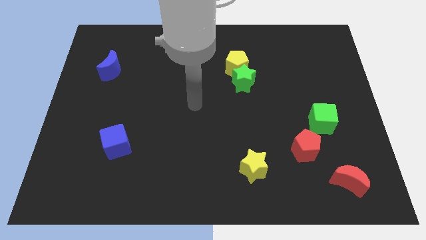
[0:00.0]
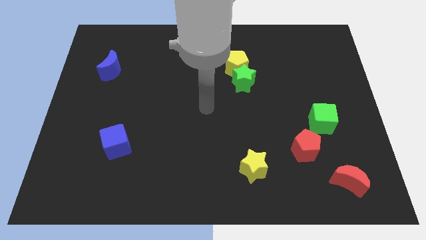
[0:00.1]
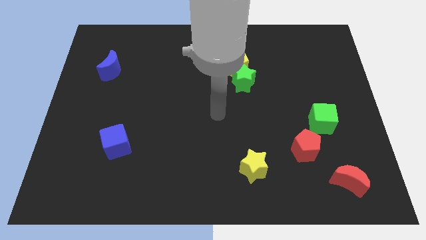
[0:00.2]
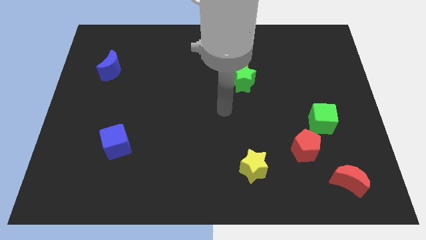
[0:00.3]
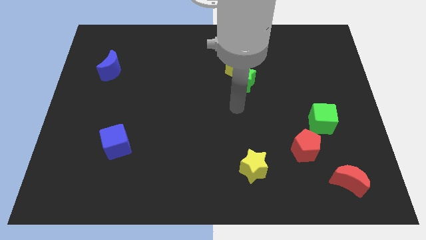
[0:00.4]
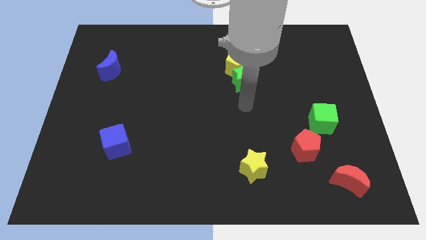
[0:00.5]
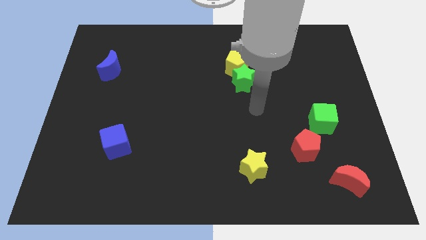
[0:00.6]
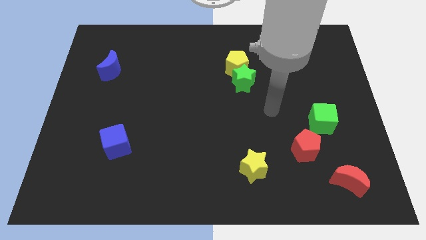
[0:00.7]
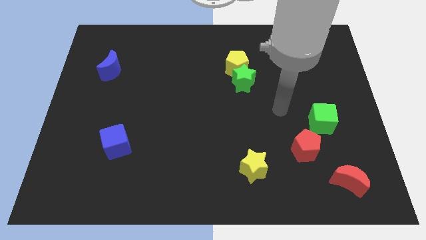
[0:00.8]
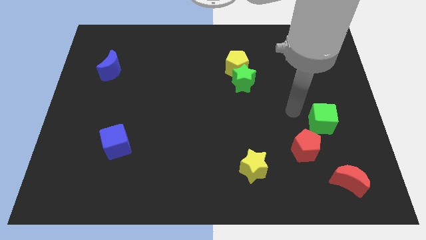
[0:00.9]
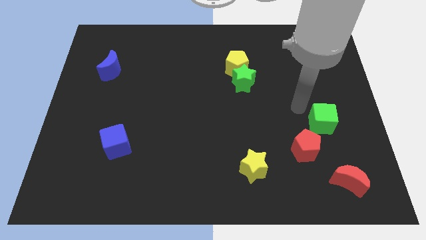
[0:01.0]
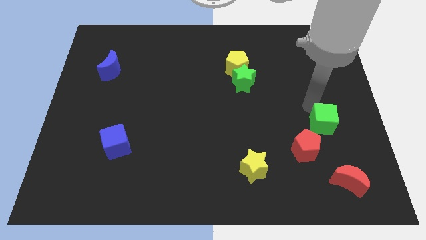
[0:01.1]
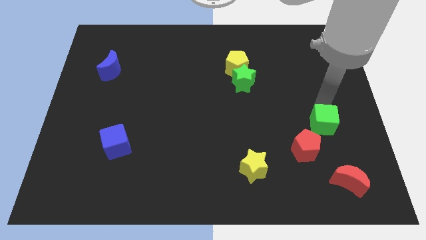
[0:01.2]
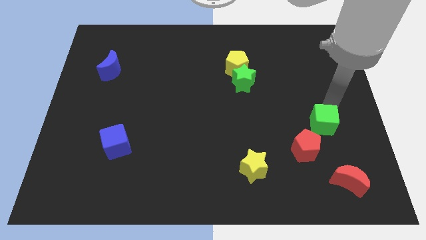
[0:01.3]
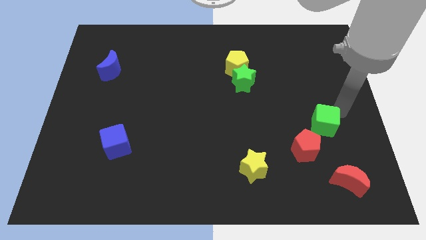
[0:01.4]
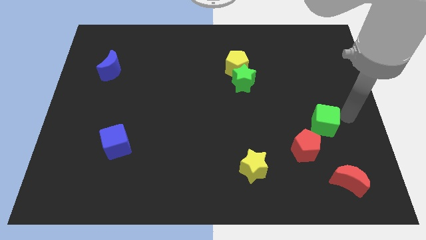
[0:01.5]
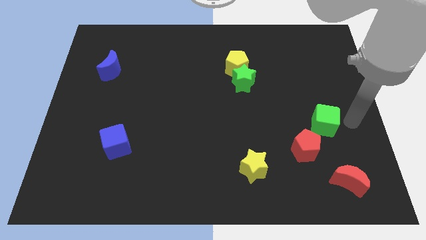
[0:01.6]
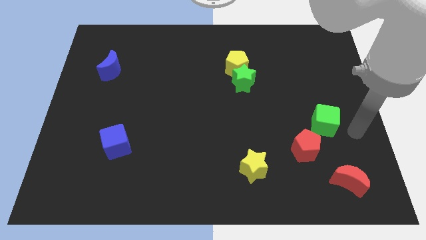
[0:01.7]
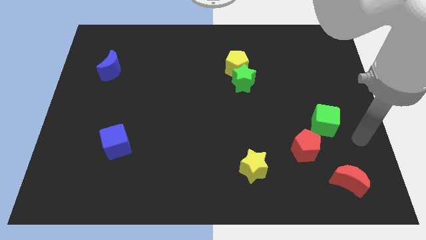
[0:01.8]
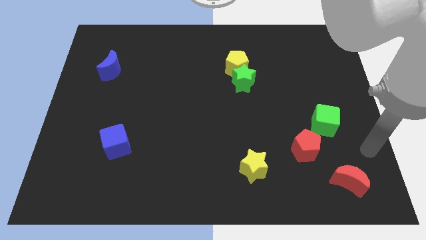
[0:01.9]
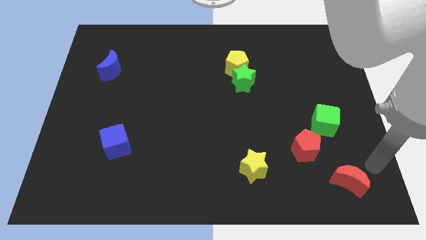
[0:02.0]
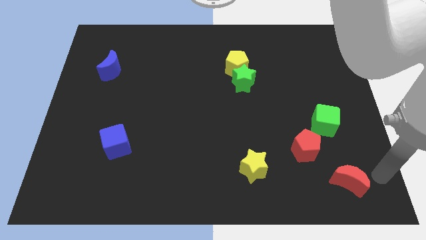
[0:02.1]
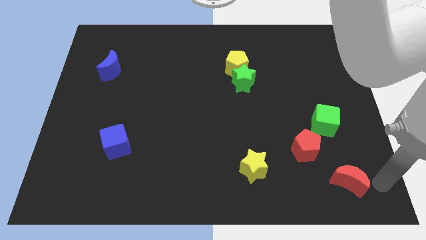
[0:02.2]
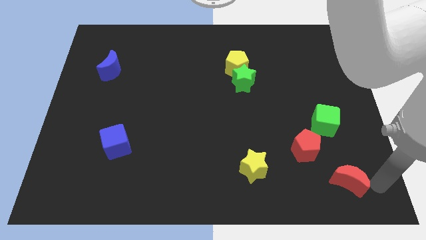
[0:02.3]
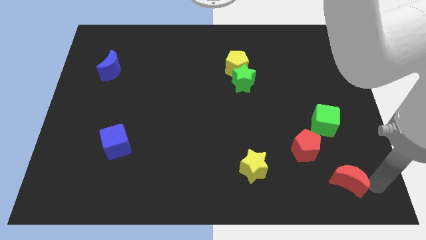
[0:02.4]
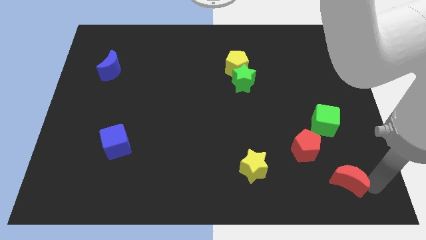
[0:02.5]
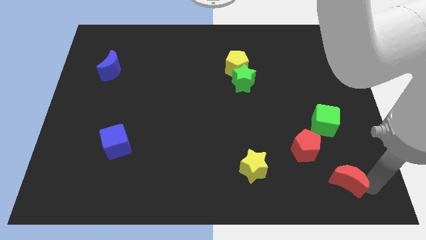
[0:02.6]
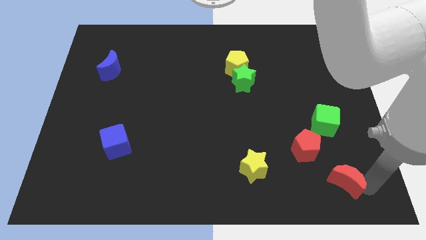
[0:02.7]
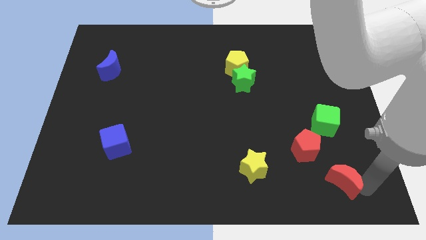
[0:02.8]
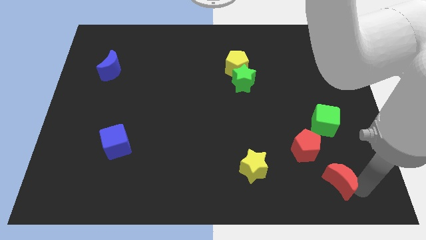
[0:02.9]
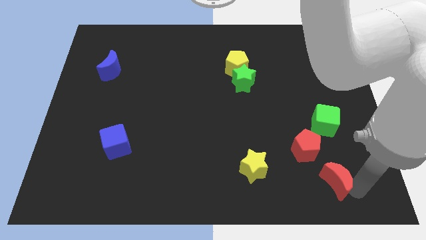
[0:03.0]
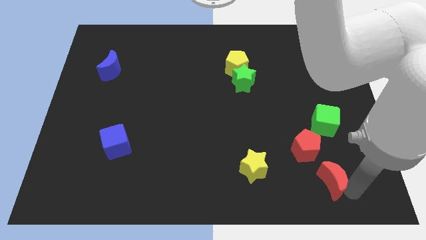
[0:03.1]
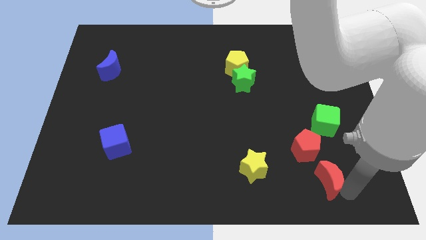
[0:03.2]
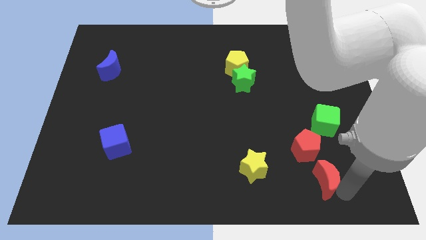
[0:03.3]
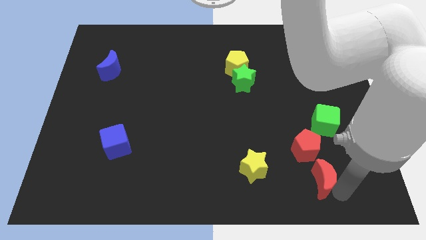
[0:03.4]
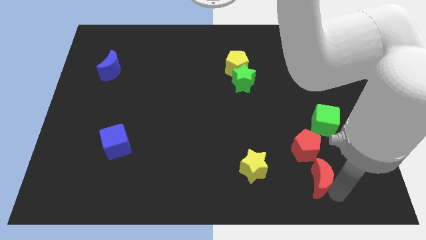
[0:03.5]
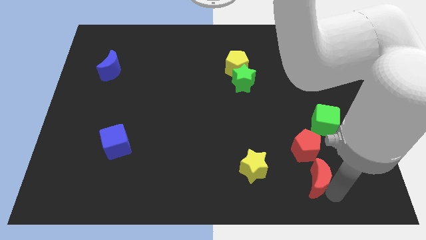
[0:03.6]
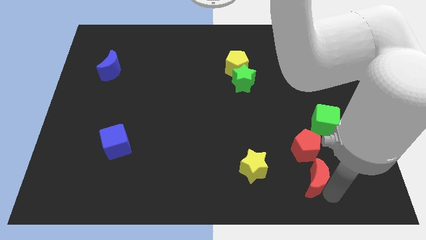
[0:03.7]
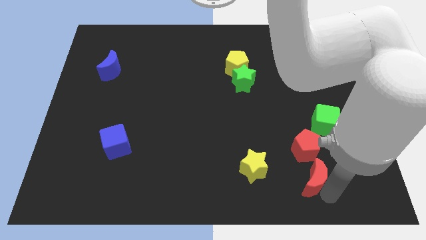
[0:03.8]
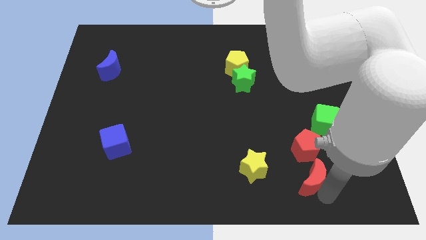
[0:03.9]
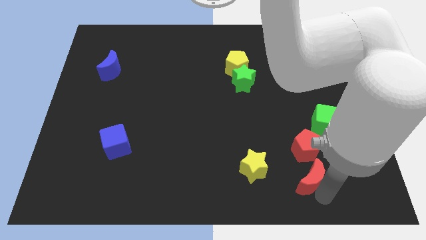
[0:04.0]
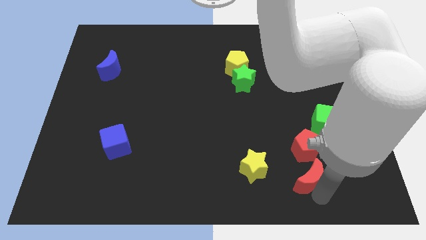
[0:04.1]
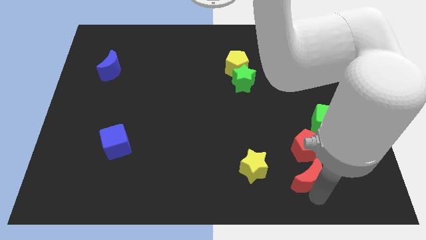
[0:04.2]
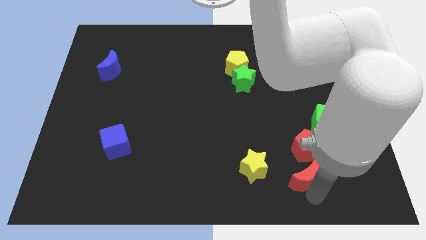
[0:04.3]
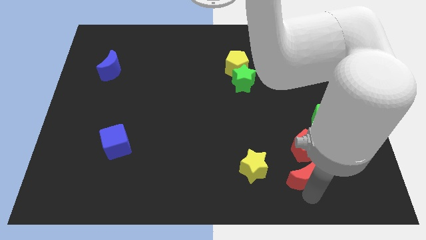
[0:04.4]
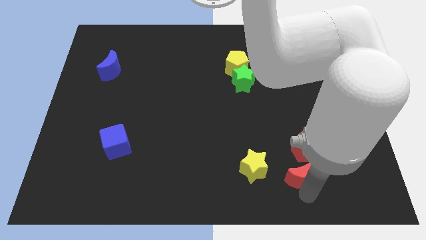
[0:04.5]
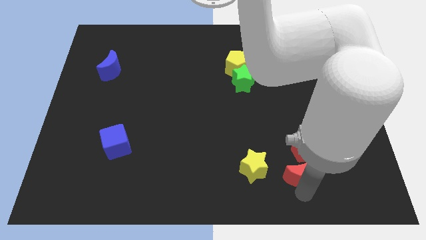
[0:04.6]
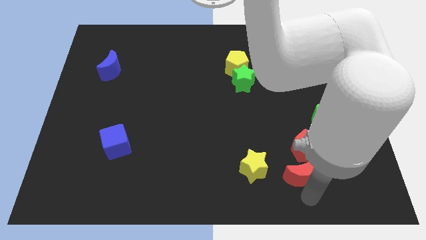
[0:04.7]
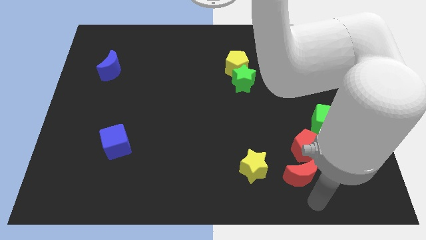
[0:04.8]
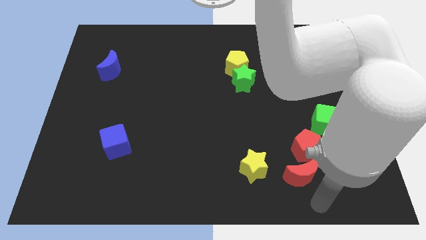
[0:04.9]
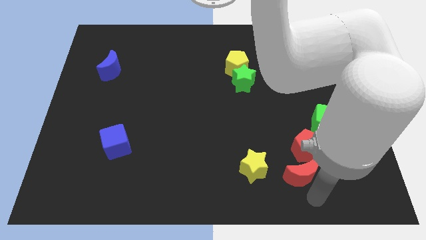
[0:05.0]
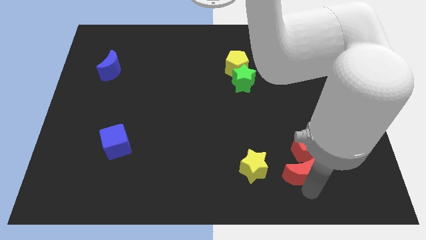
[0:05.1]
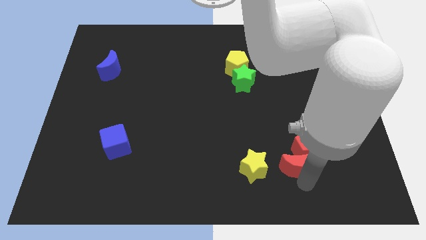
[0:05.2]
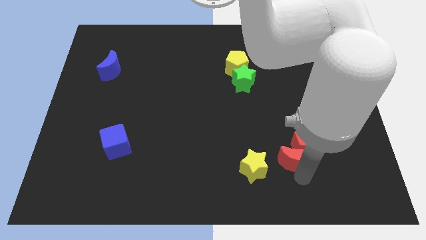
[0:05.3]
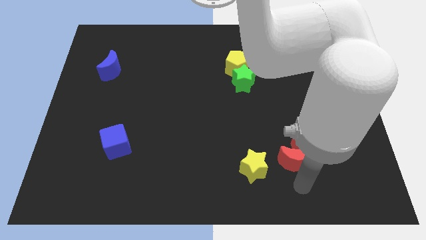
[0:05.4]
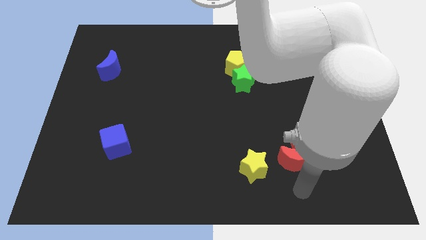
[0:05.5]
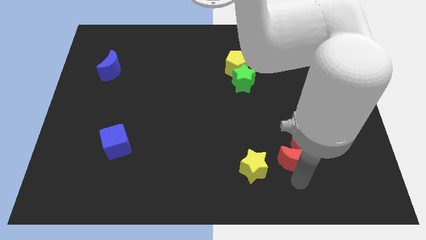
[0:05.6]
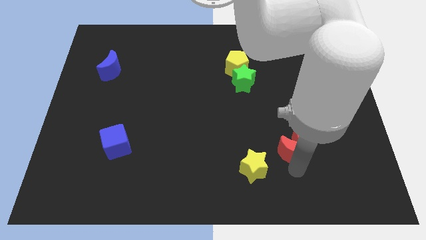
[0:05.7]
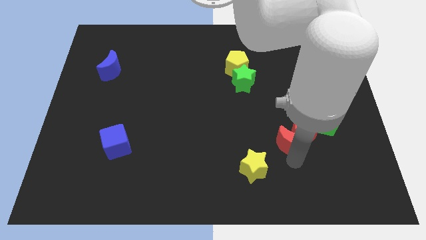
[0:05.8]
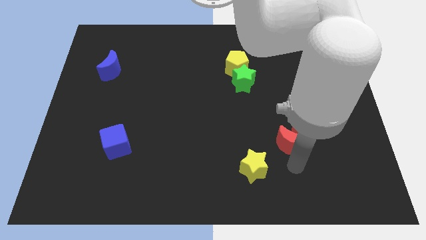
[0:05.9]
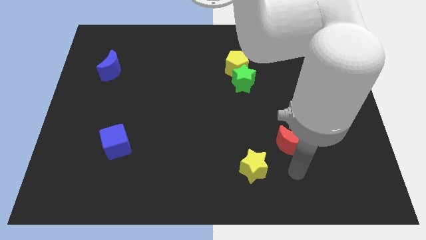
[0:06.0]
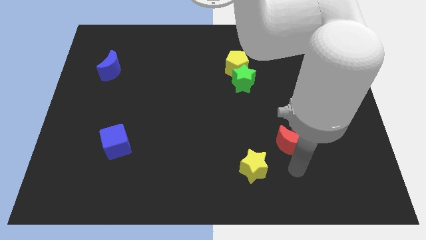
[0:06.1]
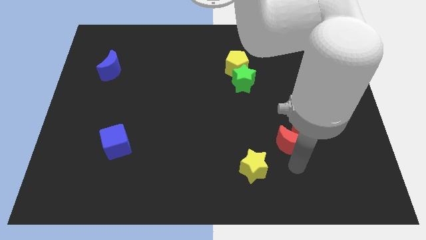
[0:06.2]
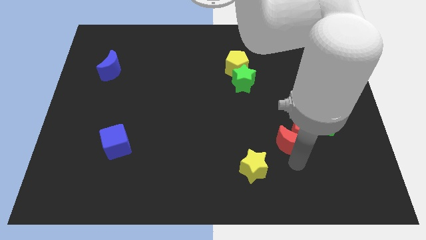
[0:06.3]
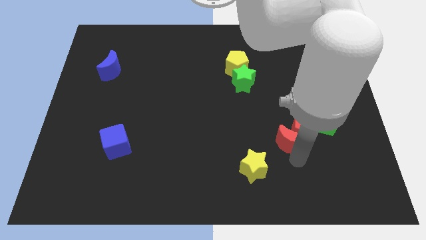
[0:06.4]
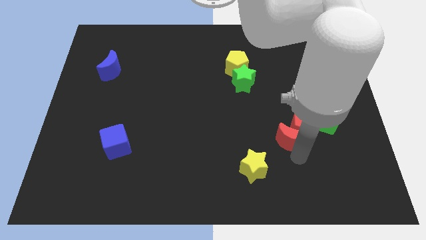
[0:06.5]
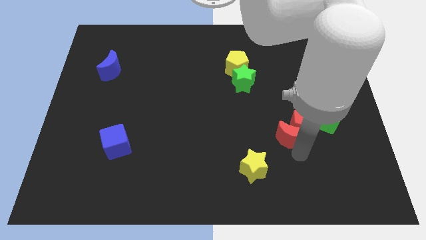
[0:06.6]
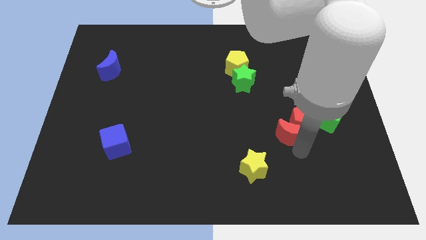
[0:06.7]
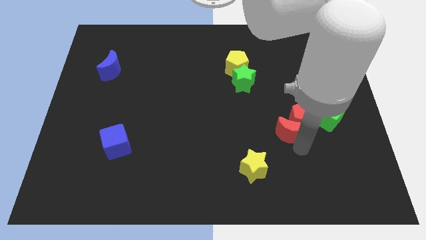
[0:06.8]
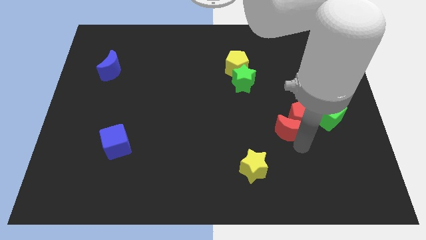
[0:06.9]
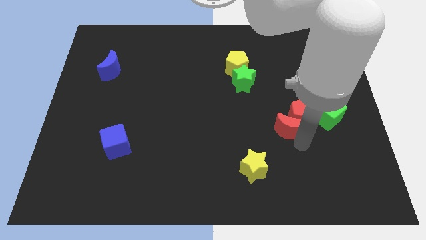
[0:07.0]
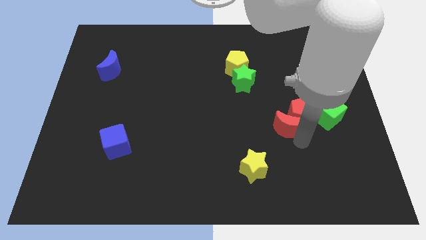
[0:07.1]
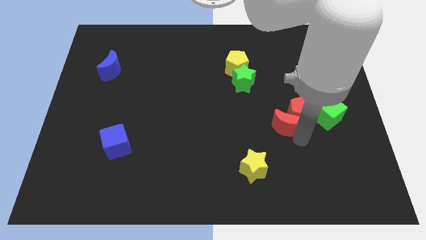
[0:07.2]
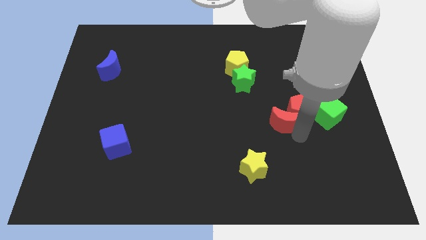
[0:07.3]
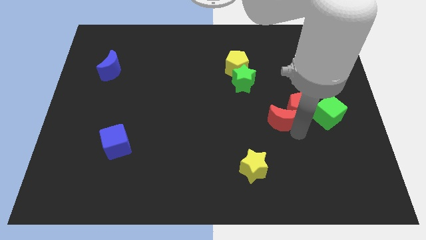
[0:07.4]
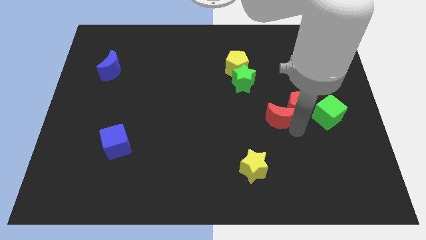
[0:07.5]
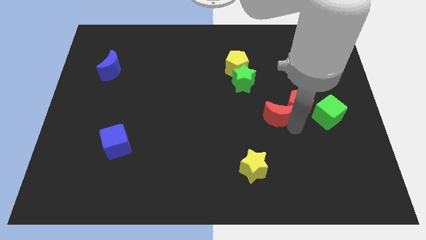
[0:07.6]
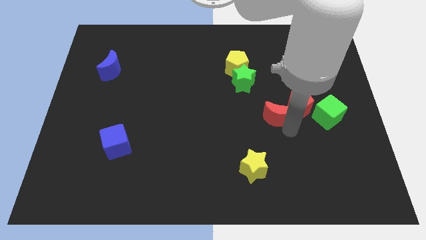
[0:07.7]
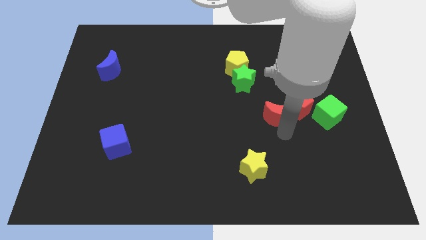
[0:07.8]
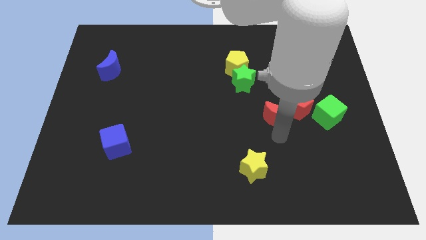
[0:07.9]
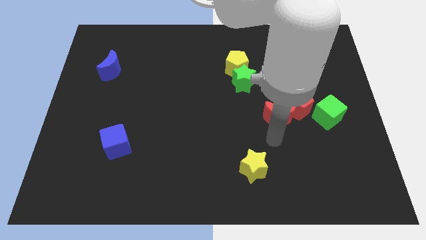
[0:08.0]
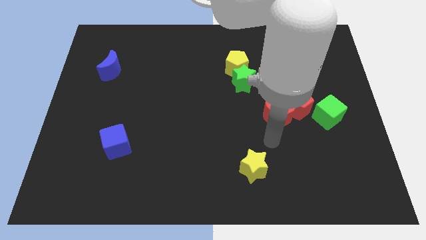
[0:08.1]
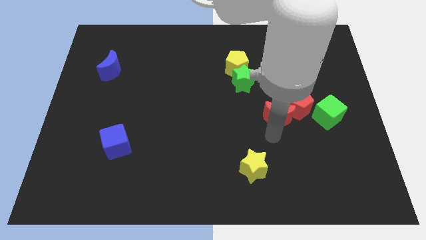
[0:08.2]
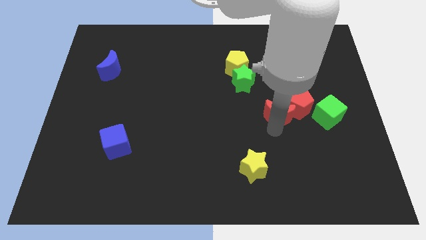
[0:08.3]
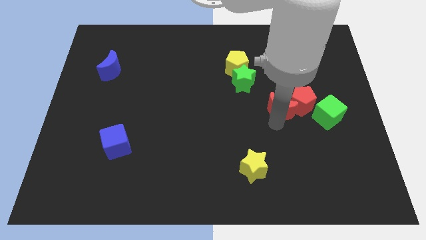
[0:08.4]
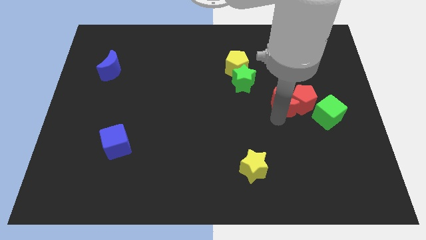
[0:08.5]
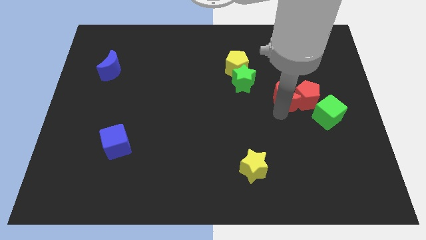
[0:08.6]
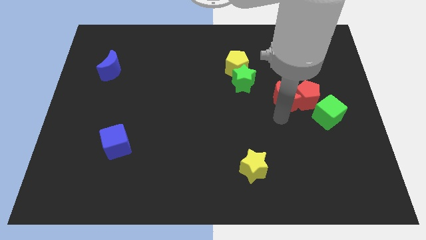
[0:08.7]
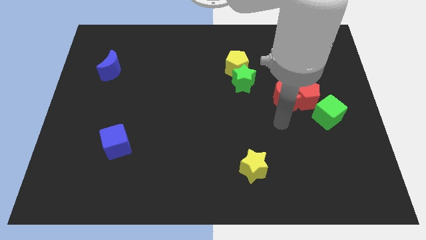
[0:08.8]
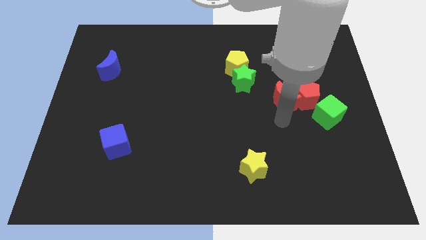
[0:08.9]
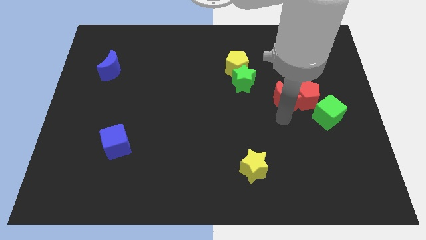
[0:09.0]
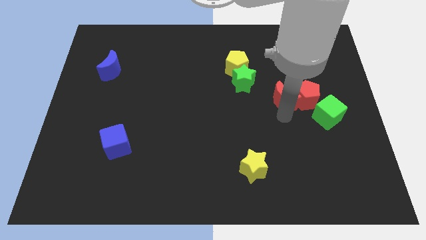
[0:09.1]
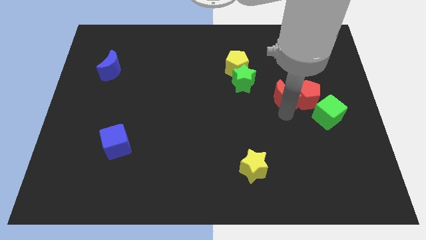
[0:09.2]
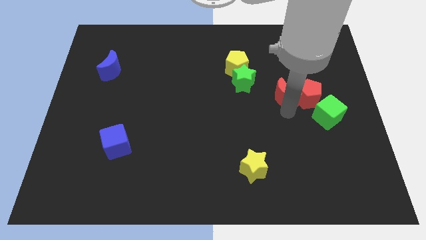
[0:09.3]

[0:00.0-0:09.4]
put the red moon to the right side of the green star
